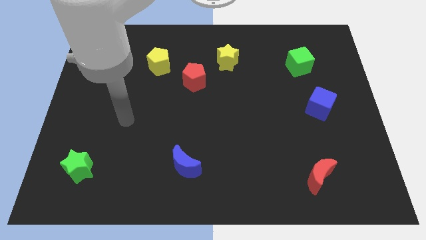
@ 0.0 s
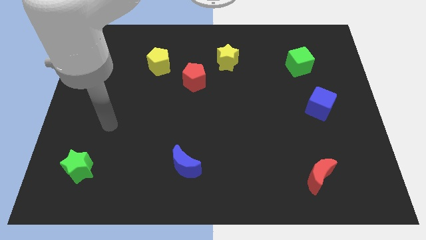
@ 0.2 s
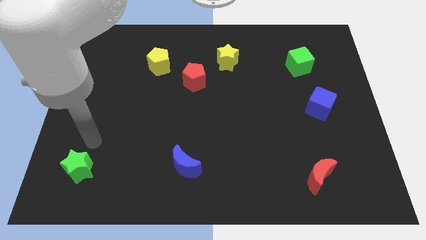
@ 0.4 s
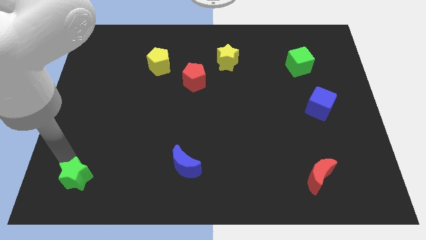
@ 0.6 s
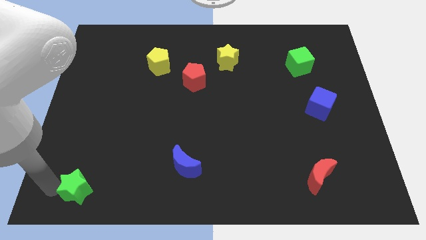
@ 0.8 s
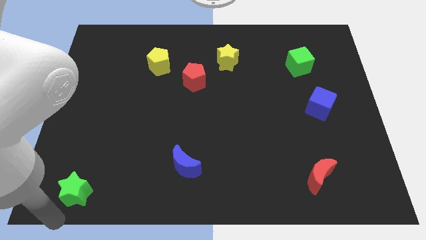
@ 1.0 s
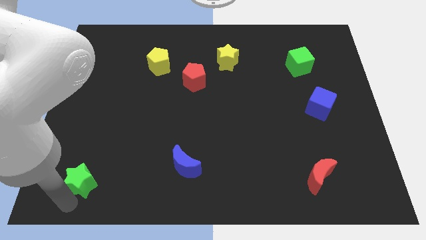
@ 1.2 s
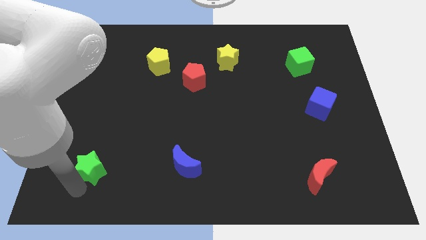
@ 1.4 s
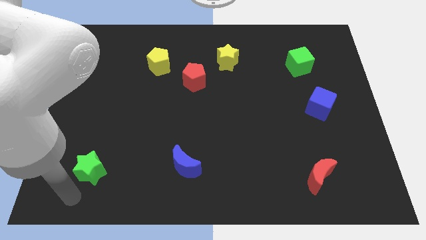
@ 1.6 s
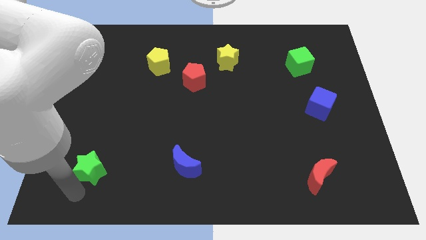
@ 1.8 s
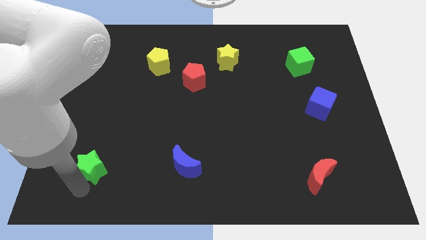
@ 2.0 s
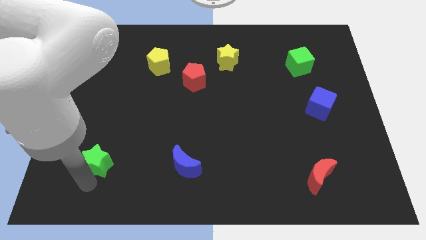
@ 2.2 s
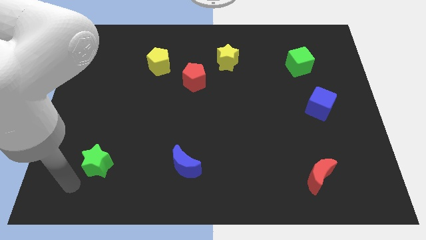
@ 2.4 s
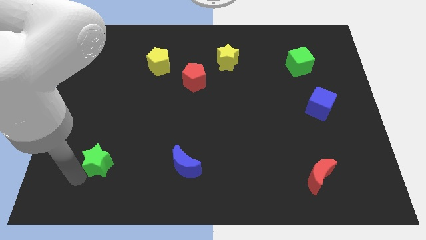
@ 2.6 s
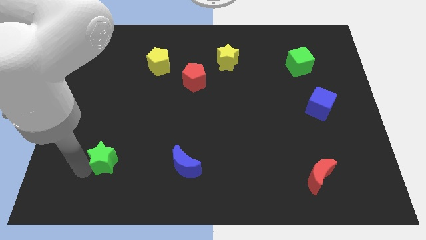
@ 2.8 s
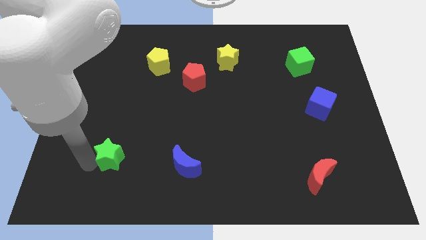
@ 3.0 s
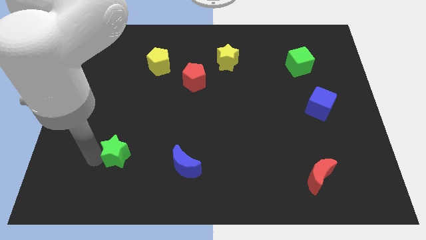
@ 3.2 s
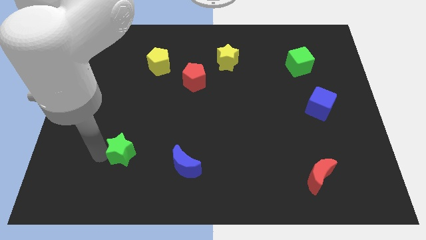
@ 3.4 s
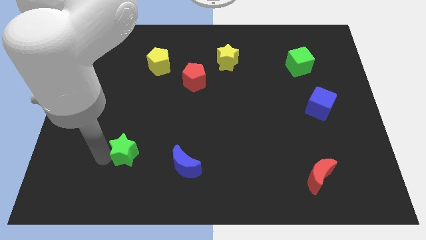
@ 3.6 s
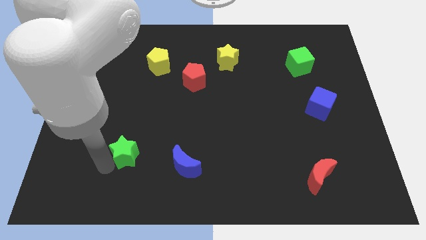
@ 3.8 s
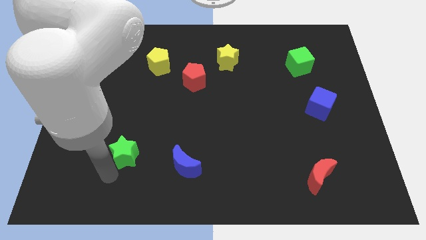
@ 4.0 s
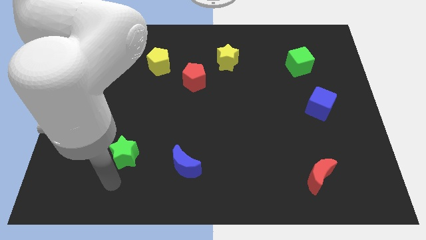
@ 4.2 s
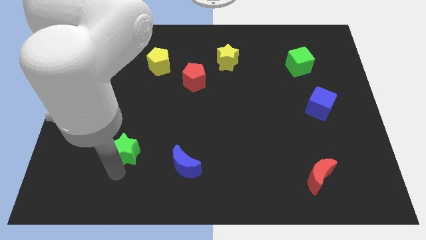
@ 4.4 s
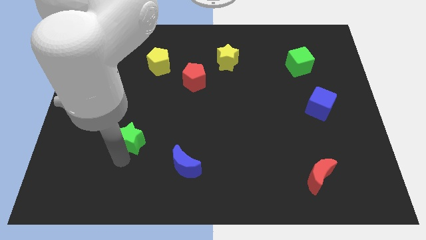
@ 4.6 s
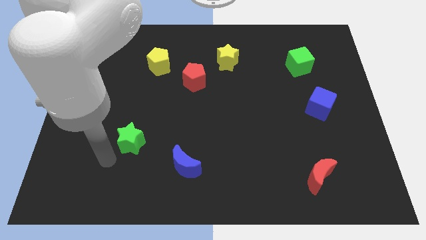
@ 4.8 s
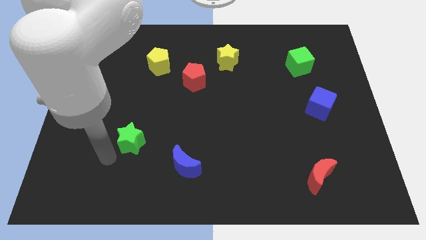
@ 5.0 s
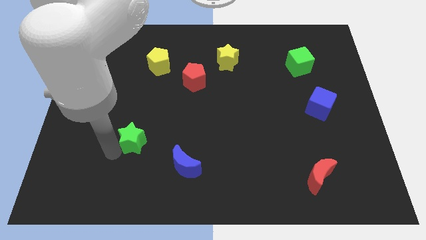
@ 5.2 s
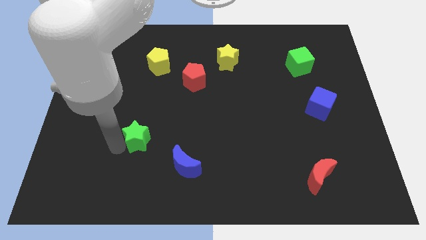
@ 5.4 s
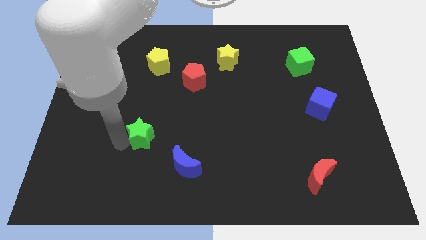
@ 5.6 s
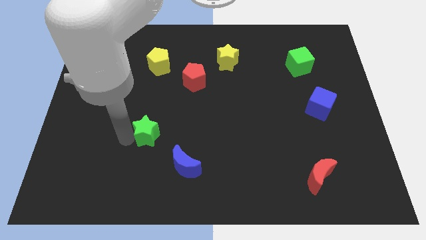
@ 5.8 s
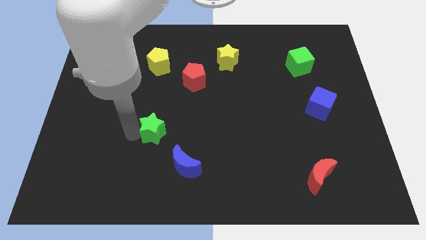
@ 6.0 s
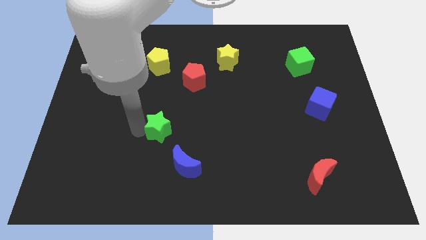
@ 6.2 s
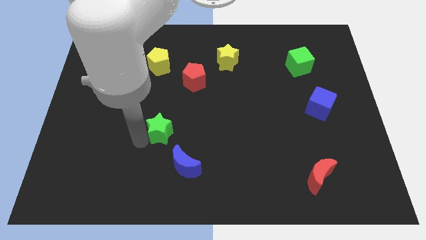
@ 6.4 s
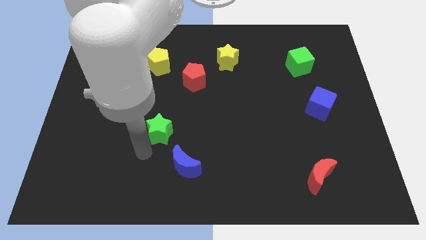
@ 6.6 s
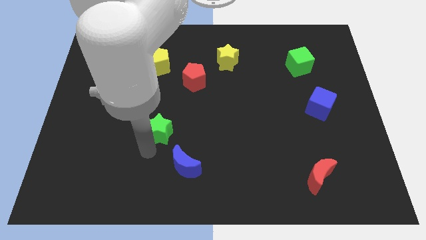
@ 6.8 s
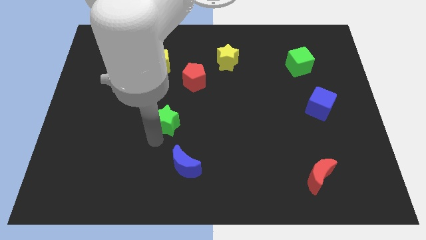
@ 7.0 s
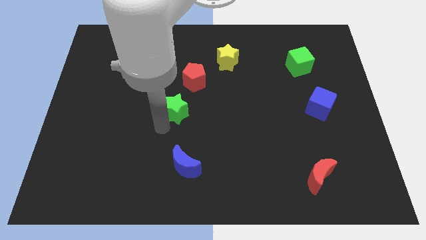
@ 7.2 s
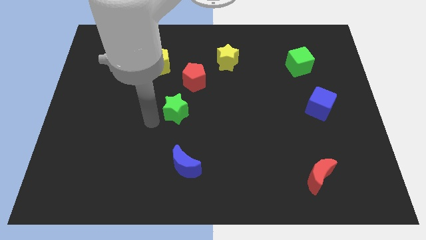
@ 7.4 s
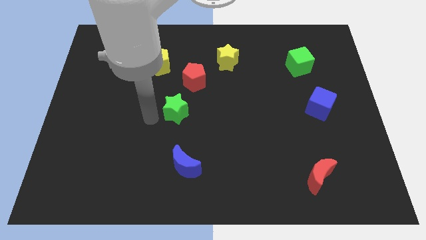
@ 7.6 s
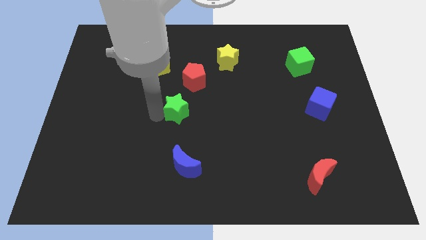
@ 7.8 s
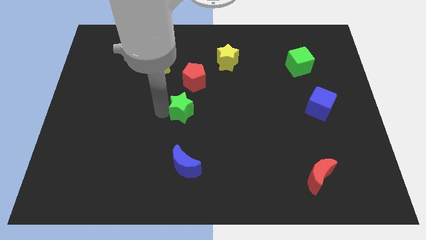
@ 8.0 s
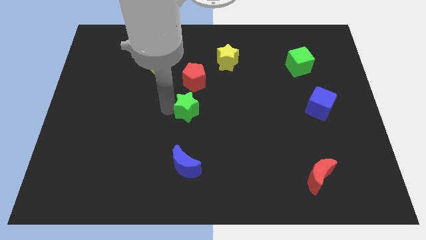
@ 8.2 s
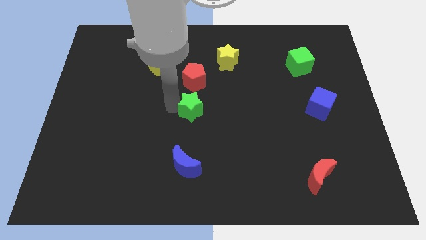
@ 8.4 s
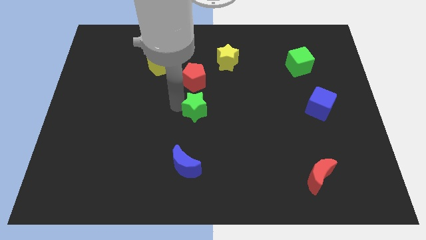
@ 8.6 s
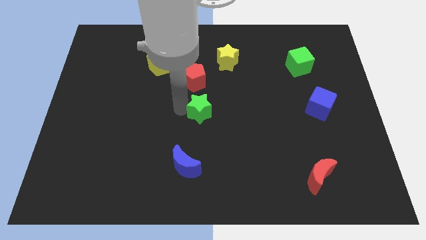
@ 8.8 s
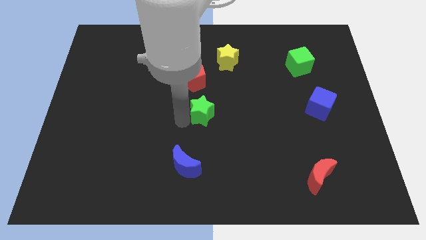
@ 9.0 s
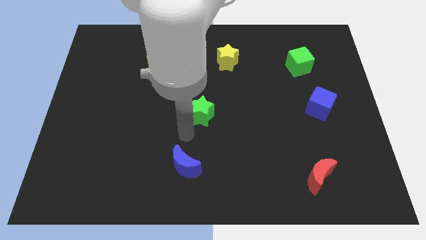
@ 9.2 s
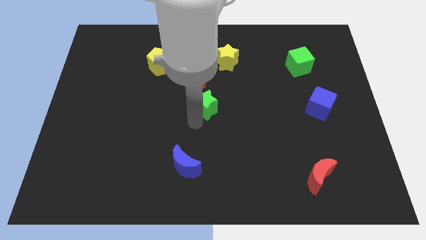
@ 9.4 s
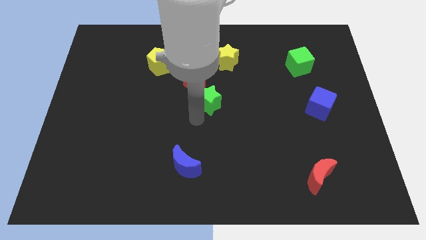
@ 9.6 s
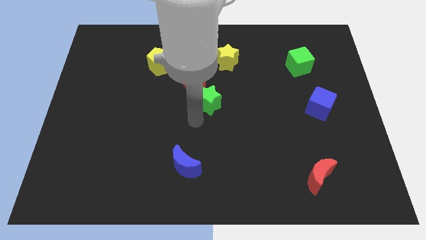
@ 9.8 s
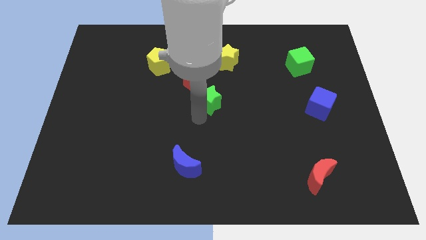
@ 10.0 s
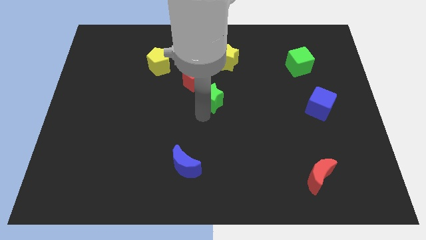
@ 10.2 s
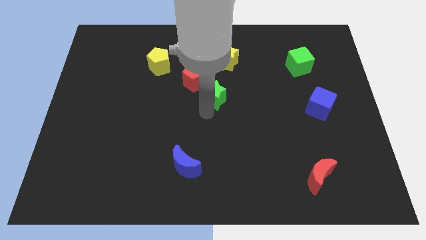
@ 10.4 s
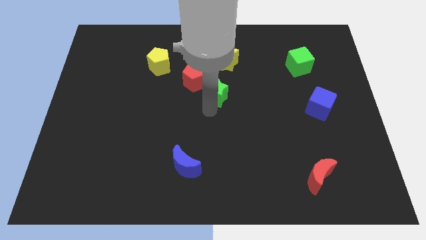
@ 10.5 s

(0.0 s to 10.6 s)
slide the green star to the right of the red pentagon

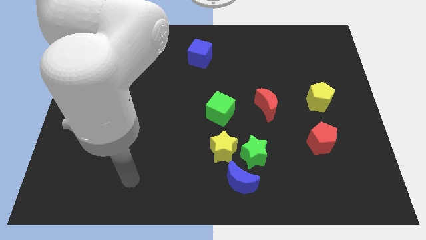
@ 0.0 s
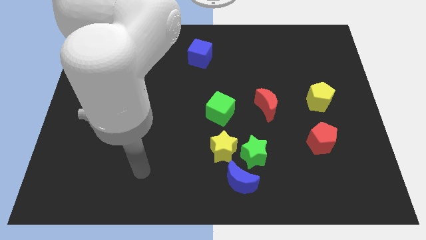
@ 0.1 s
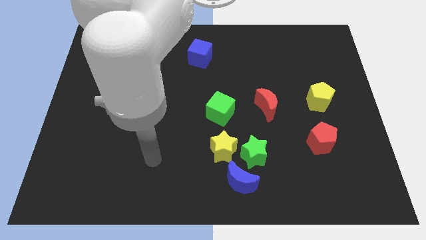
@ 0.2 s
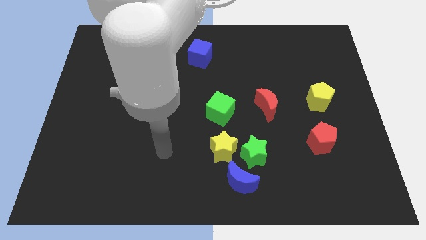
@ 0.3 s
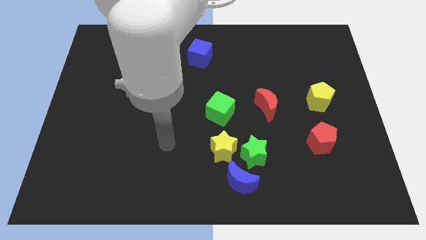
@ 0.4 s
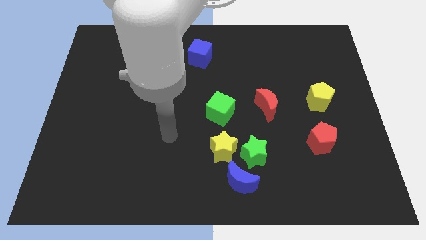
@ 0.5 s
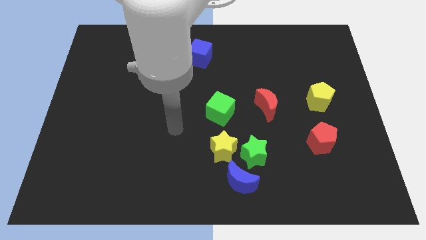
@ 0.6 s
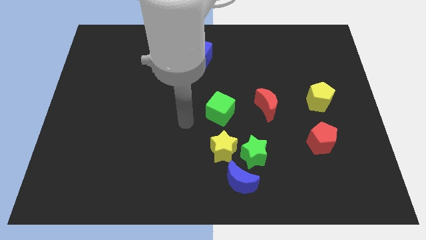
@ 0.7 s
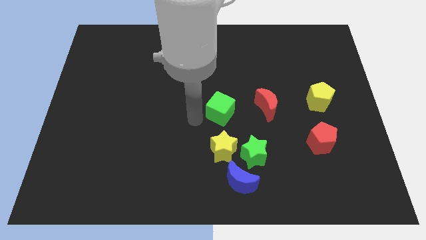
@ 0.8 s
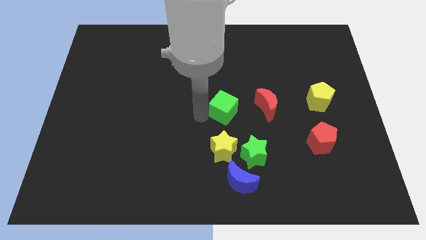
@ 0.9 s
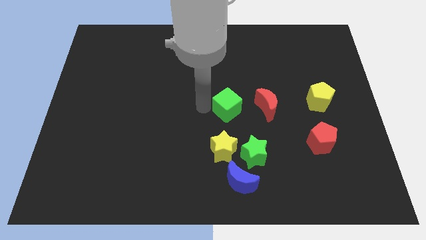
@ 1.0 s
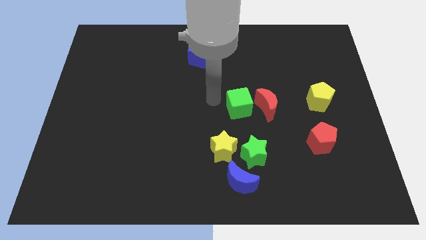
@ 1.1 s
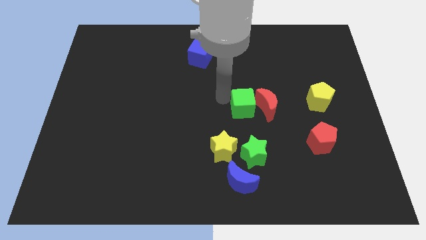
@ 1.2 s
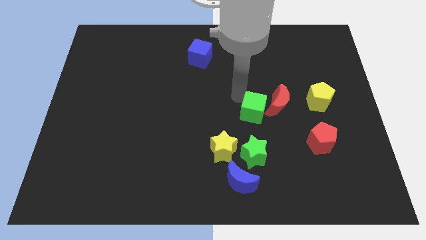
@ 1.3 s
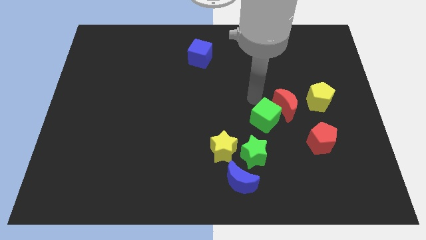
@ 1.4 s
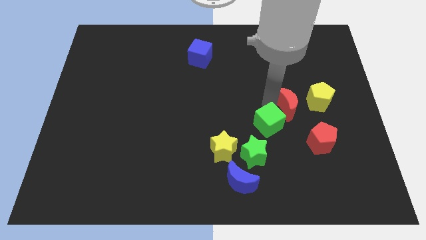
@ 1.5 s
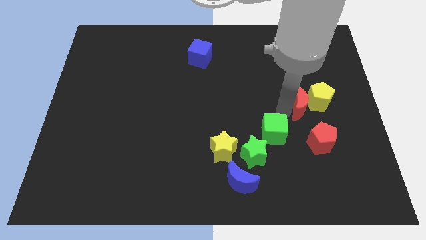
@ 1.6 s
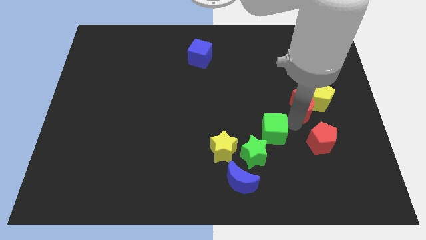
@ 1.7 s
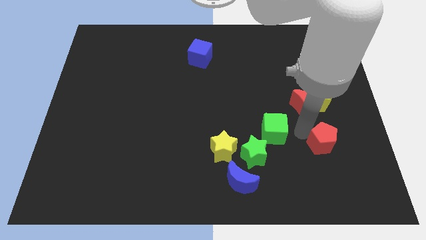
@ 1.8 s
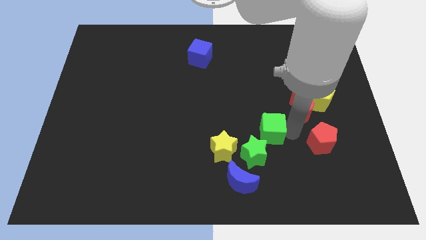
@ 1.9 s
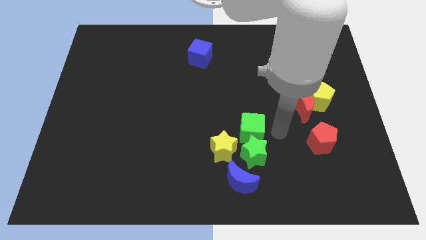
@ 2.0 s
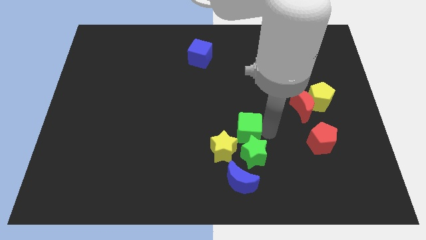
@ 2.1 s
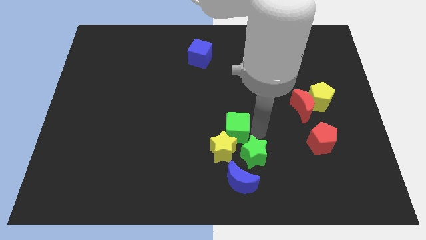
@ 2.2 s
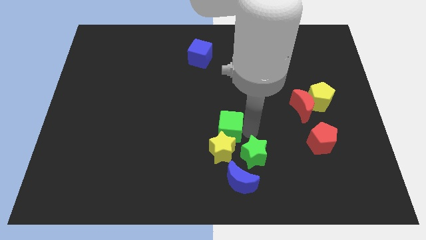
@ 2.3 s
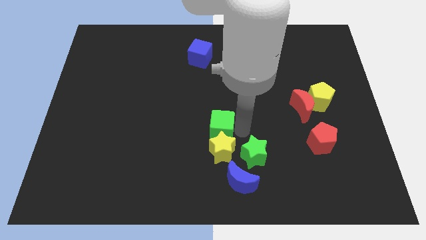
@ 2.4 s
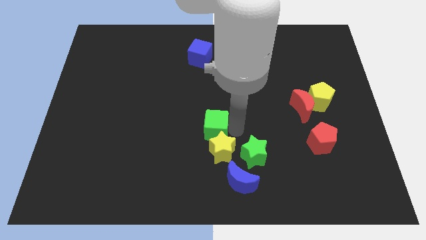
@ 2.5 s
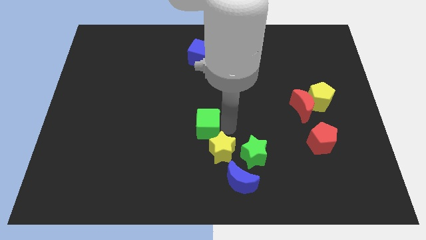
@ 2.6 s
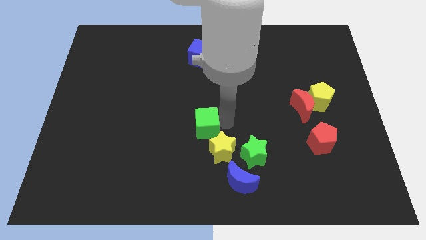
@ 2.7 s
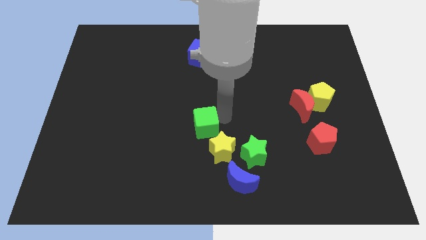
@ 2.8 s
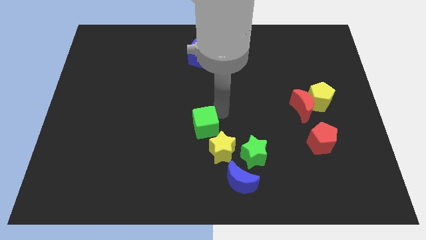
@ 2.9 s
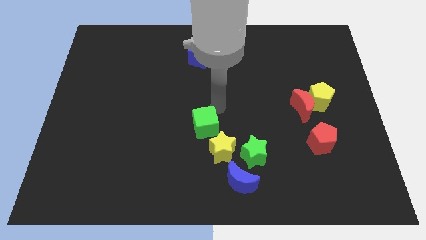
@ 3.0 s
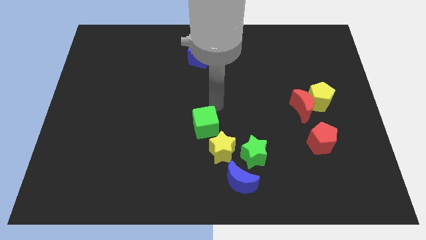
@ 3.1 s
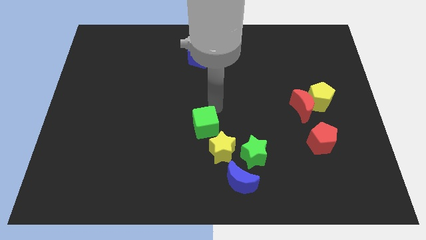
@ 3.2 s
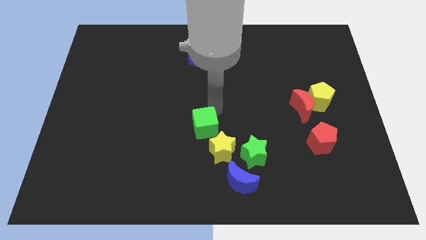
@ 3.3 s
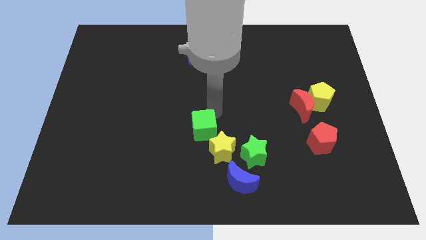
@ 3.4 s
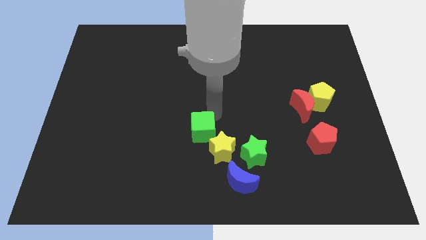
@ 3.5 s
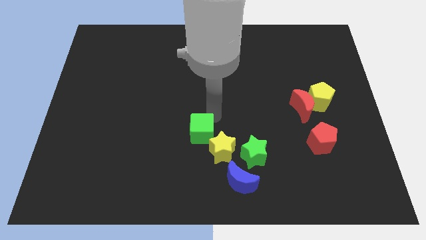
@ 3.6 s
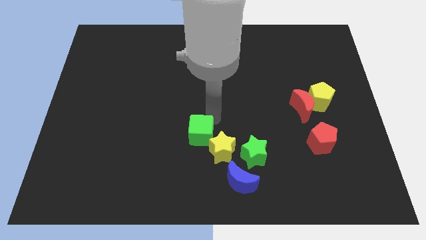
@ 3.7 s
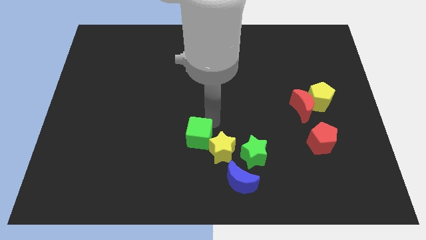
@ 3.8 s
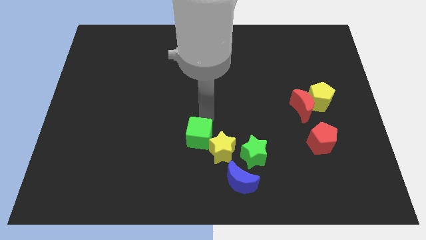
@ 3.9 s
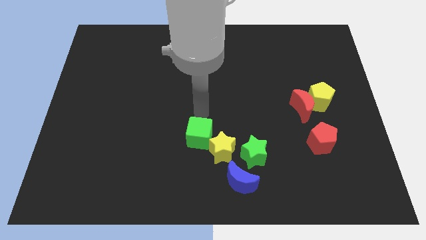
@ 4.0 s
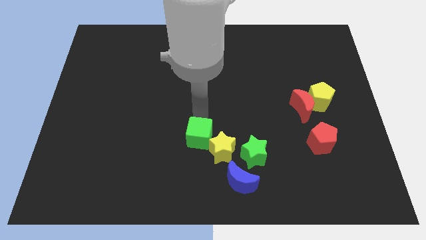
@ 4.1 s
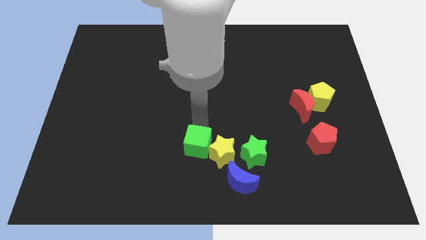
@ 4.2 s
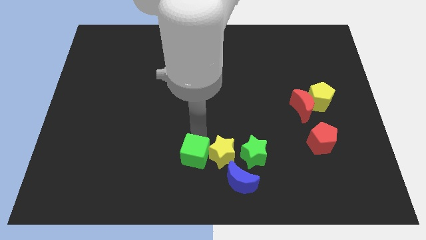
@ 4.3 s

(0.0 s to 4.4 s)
slide the green cube diagonally down and to the left of the yellow star
